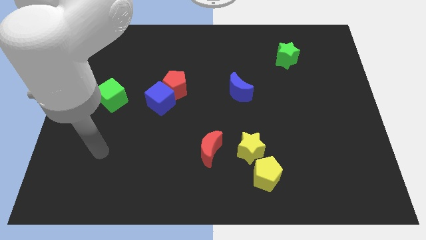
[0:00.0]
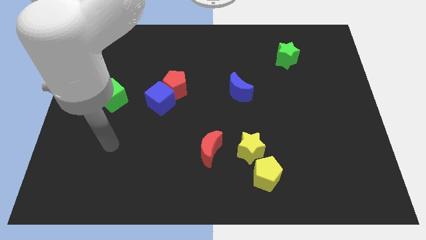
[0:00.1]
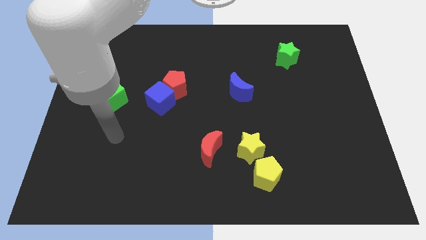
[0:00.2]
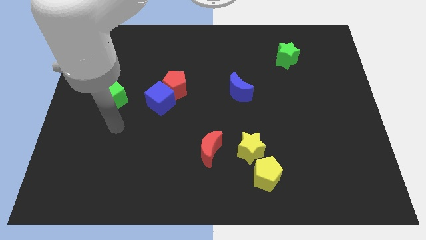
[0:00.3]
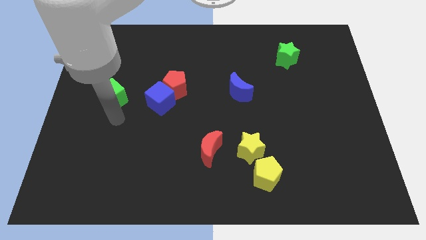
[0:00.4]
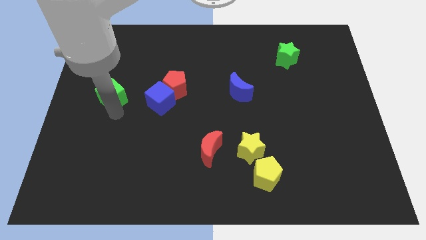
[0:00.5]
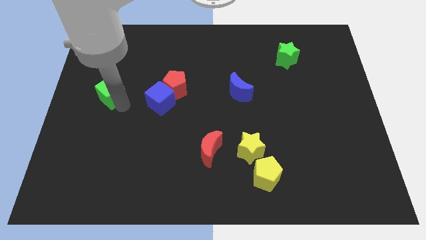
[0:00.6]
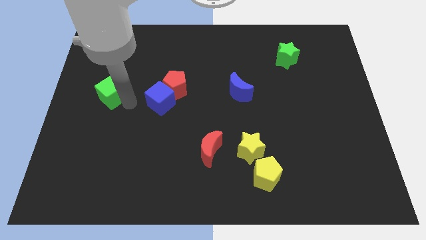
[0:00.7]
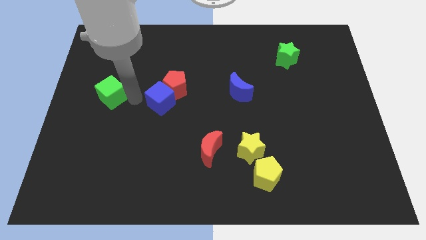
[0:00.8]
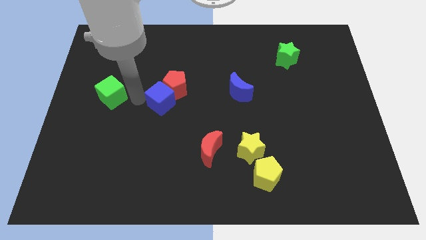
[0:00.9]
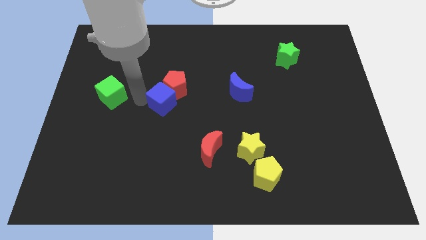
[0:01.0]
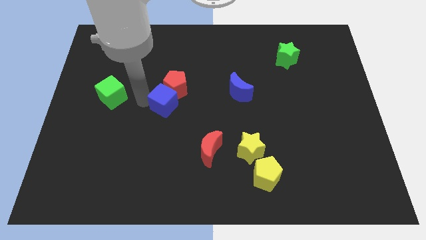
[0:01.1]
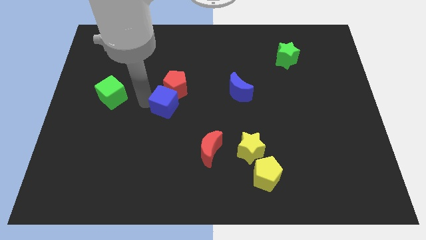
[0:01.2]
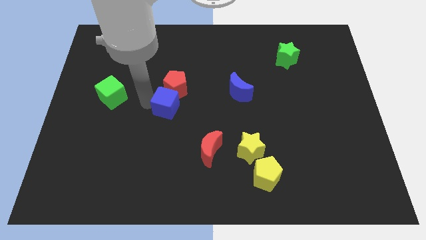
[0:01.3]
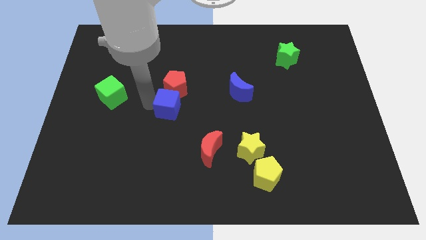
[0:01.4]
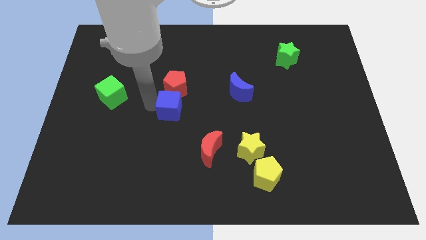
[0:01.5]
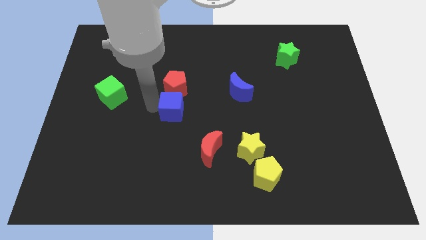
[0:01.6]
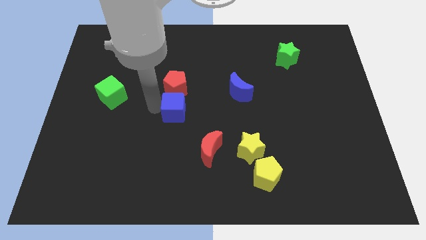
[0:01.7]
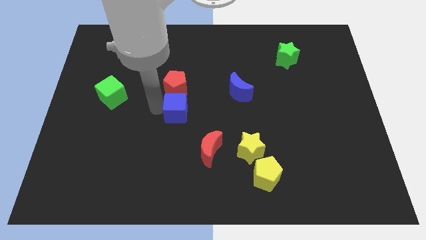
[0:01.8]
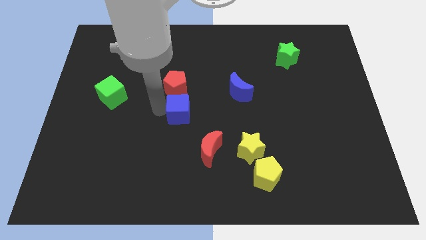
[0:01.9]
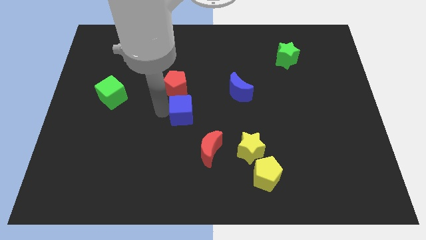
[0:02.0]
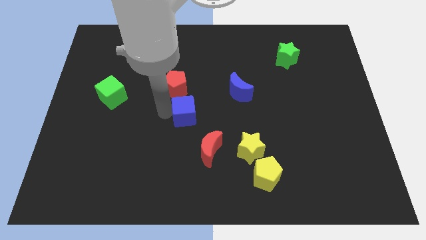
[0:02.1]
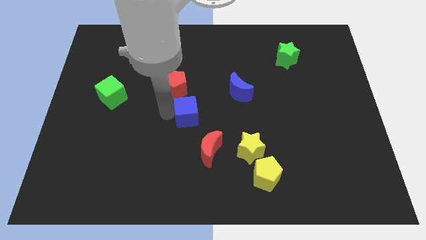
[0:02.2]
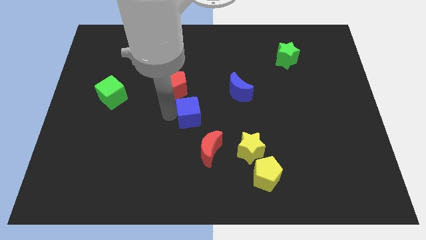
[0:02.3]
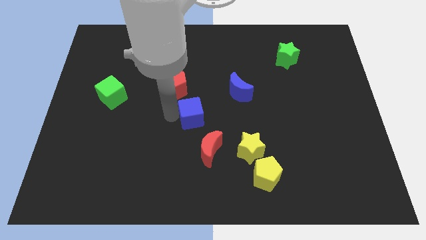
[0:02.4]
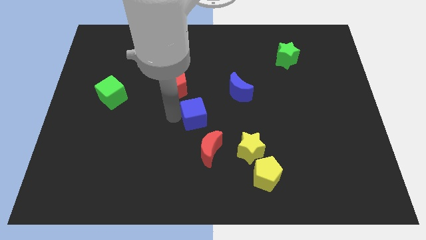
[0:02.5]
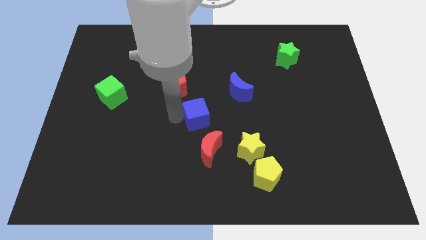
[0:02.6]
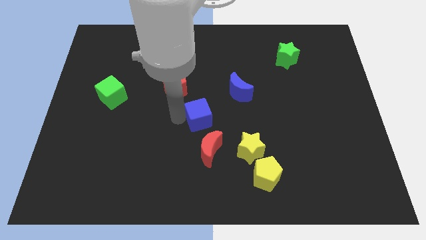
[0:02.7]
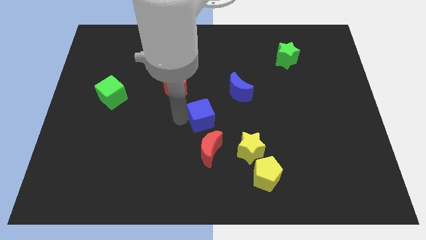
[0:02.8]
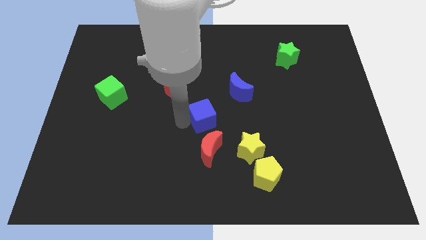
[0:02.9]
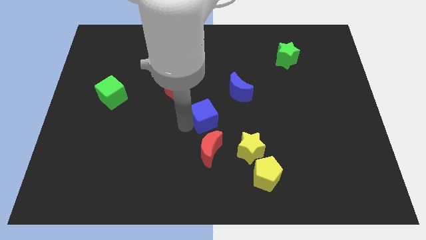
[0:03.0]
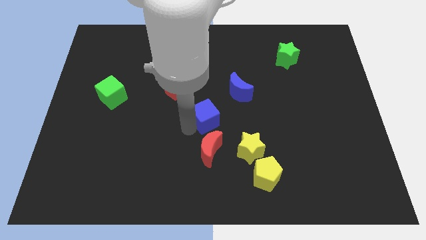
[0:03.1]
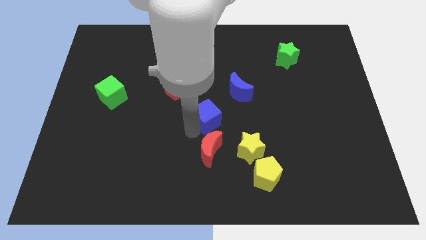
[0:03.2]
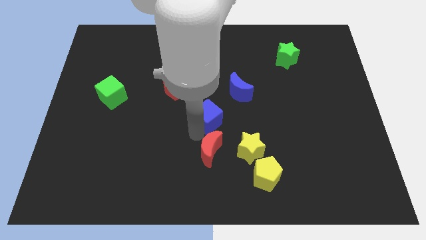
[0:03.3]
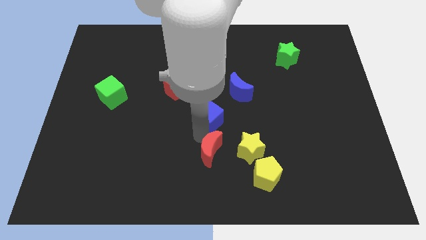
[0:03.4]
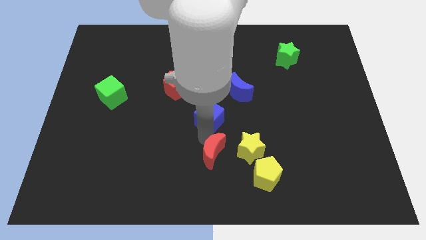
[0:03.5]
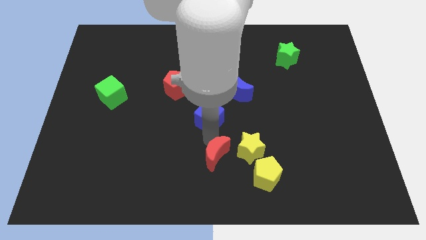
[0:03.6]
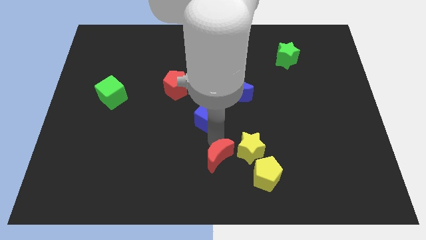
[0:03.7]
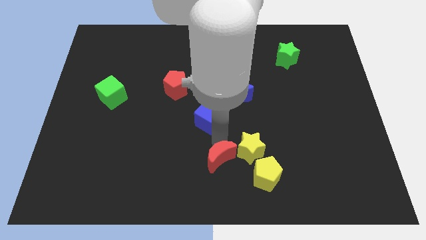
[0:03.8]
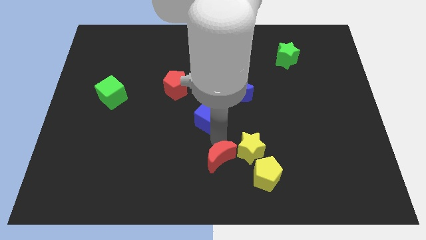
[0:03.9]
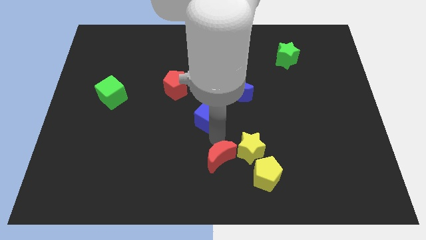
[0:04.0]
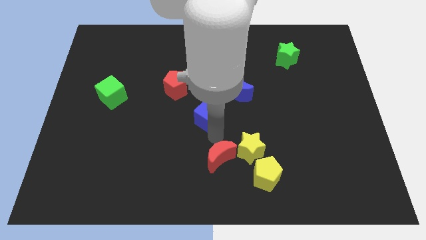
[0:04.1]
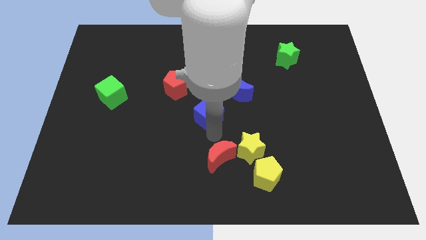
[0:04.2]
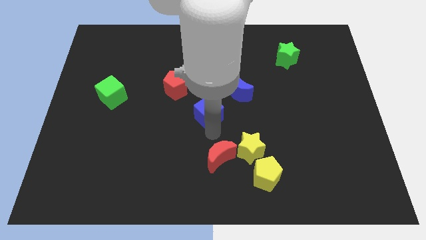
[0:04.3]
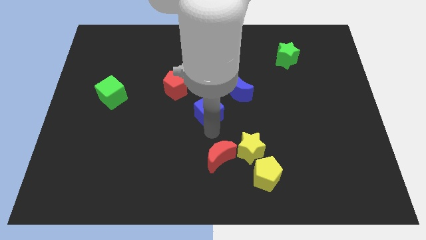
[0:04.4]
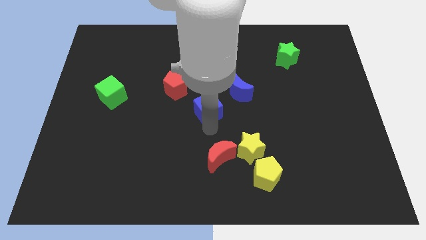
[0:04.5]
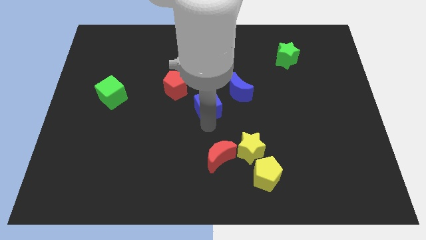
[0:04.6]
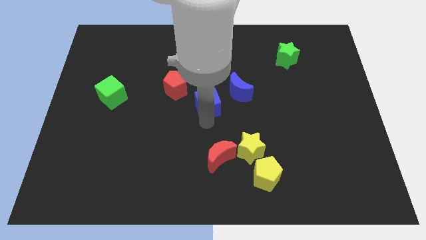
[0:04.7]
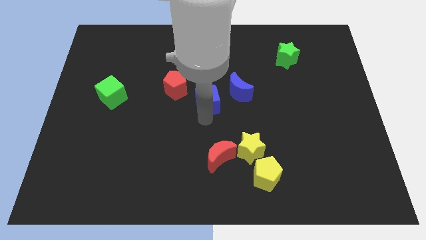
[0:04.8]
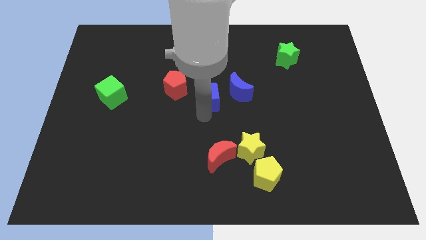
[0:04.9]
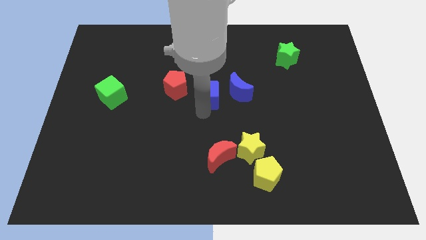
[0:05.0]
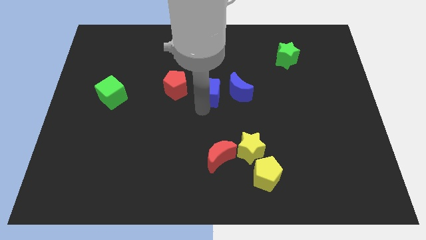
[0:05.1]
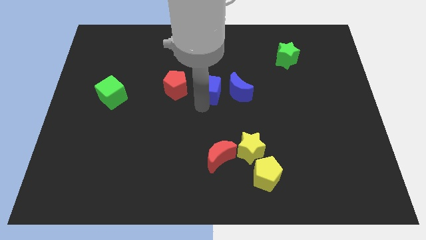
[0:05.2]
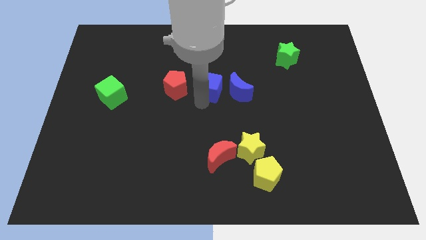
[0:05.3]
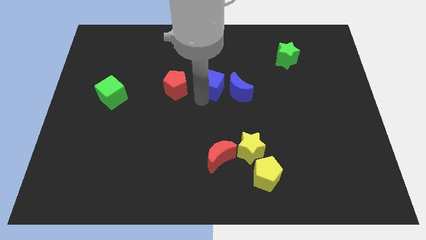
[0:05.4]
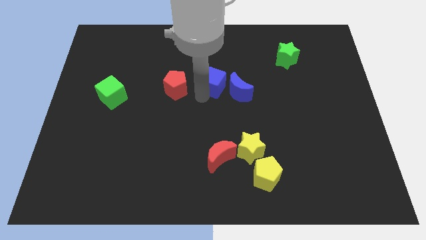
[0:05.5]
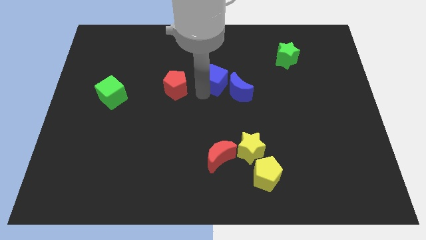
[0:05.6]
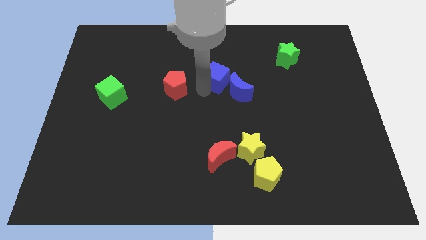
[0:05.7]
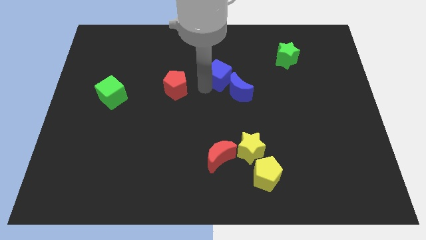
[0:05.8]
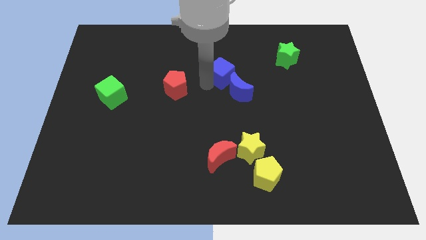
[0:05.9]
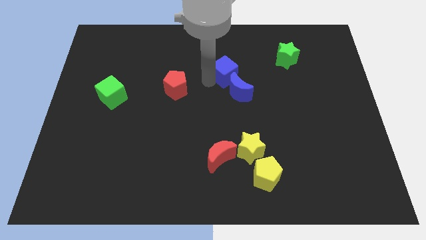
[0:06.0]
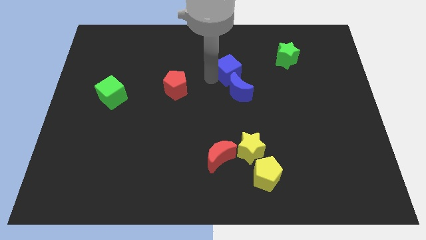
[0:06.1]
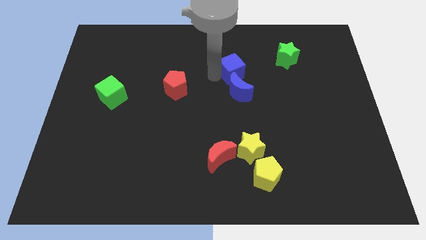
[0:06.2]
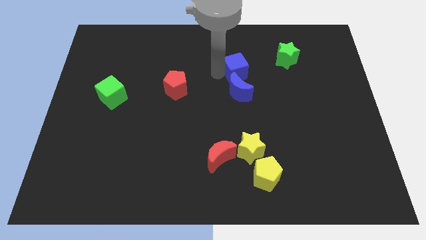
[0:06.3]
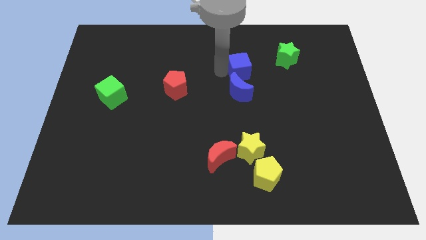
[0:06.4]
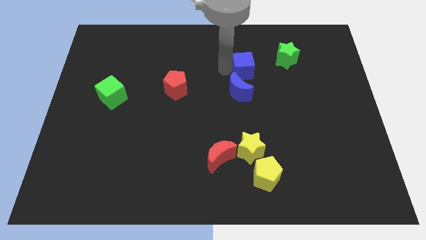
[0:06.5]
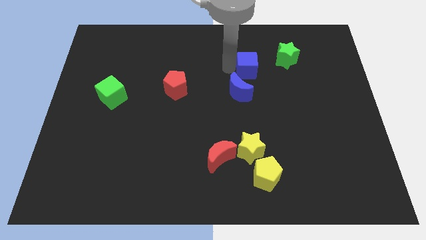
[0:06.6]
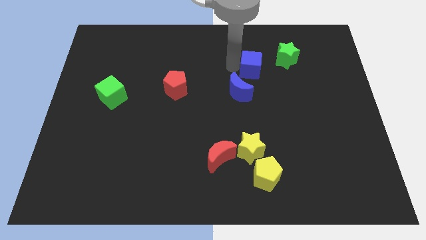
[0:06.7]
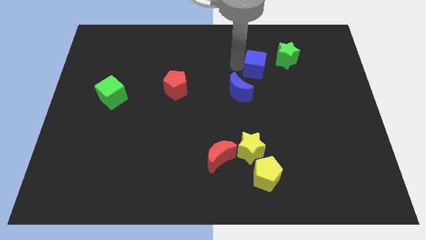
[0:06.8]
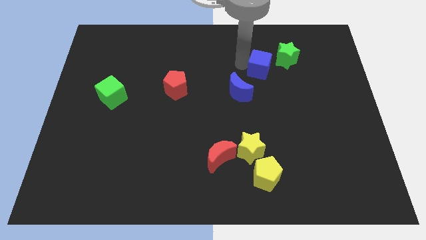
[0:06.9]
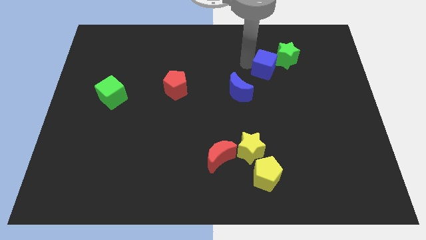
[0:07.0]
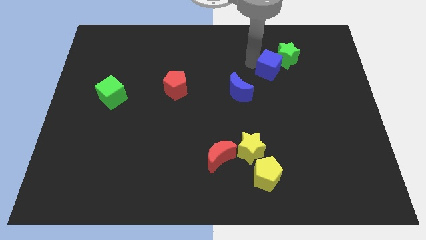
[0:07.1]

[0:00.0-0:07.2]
move the blue cube right

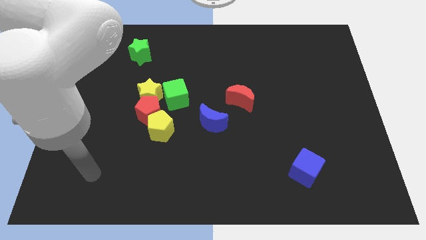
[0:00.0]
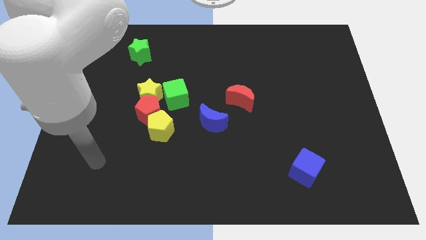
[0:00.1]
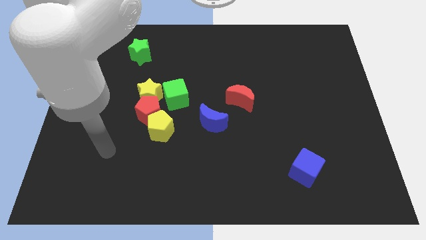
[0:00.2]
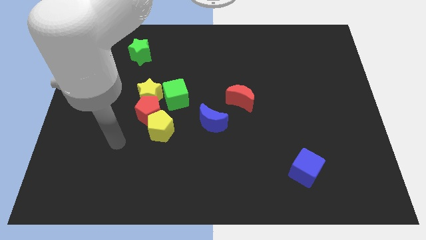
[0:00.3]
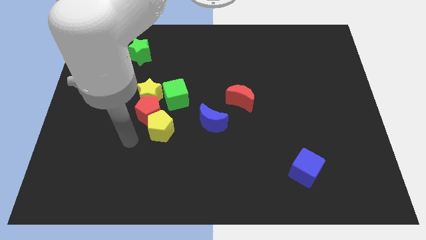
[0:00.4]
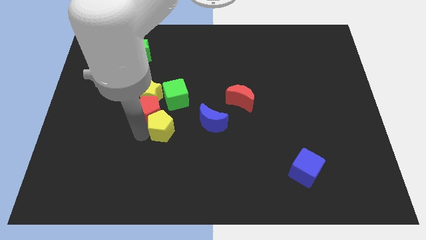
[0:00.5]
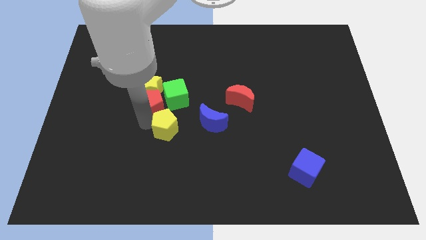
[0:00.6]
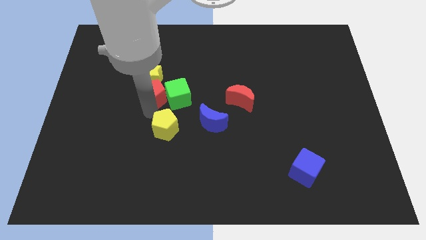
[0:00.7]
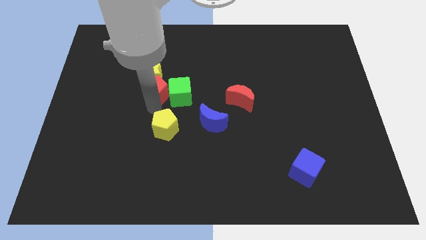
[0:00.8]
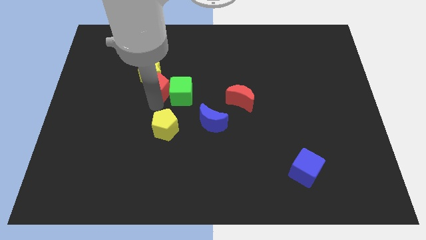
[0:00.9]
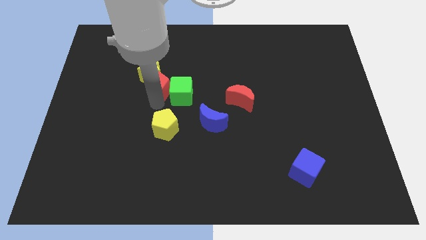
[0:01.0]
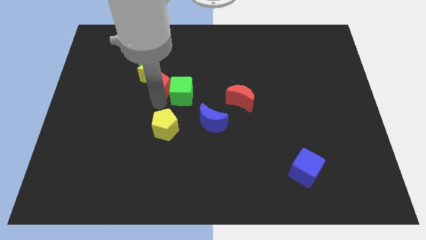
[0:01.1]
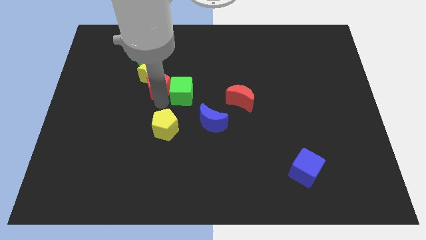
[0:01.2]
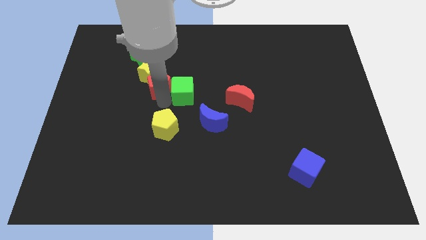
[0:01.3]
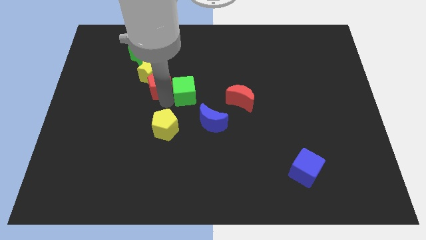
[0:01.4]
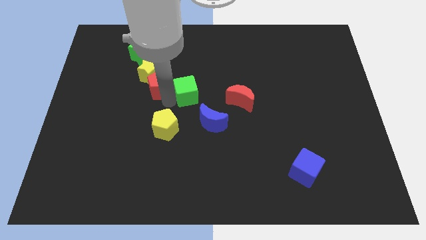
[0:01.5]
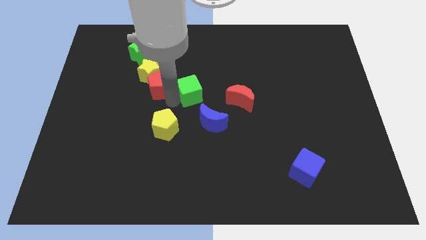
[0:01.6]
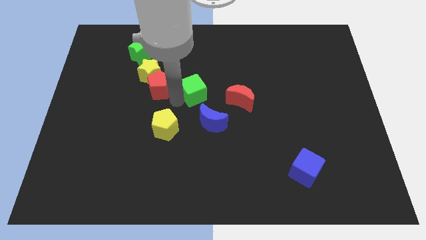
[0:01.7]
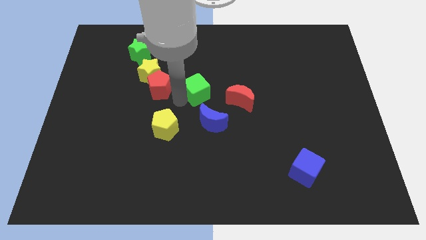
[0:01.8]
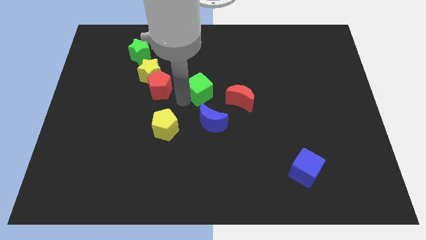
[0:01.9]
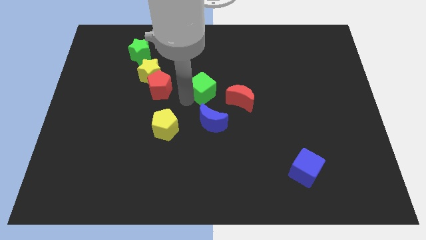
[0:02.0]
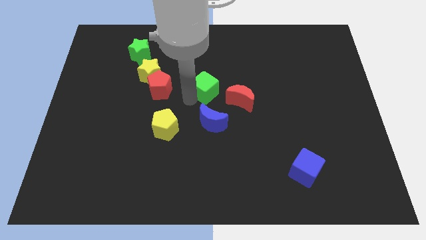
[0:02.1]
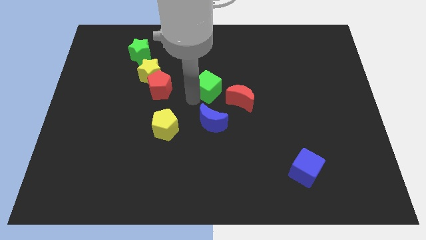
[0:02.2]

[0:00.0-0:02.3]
slide the green cube a little bit up and right
